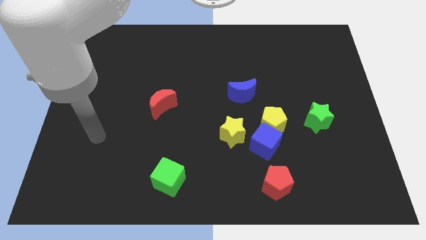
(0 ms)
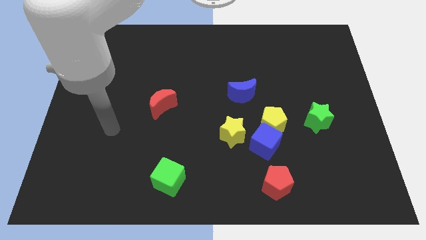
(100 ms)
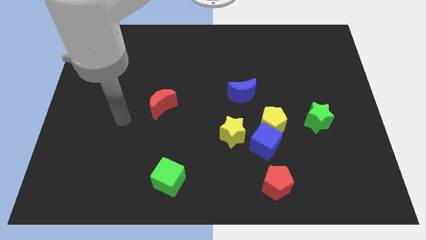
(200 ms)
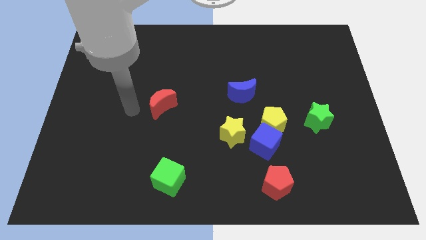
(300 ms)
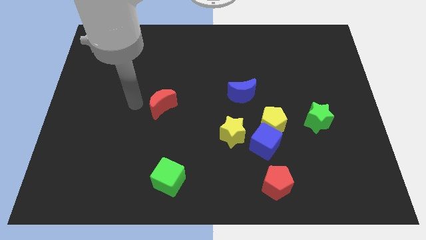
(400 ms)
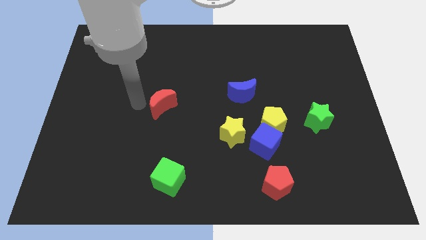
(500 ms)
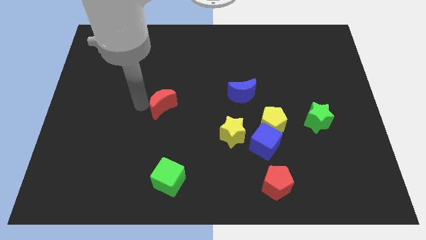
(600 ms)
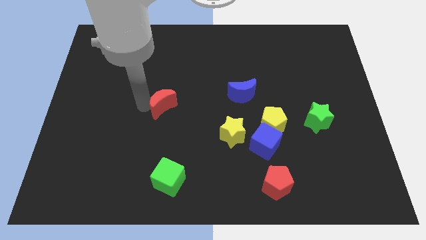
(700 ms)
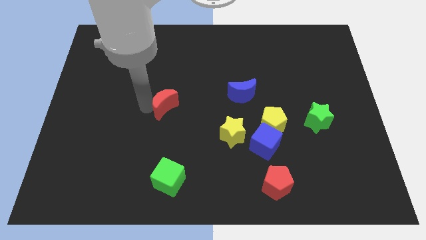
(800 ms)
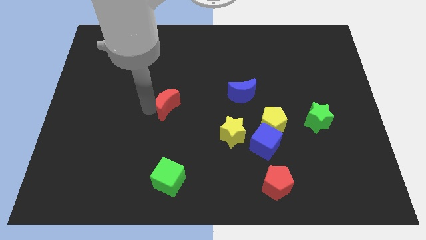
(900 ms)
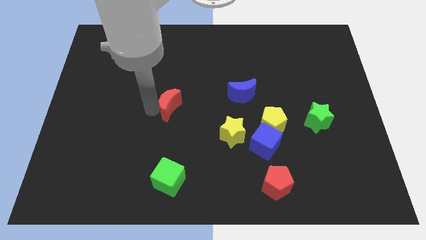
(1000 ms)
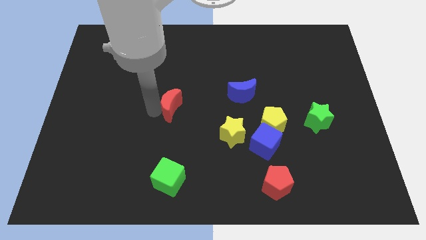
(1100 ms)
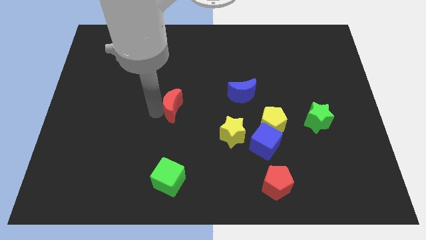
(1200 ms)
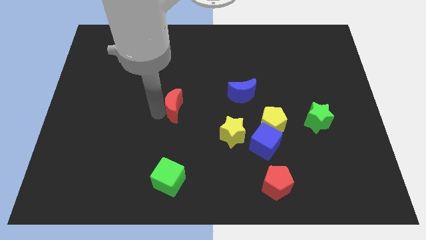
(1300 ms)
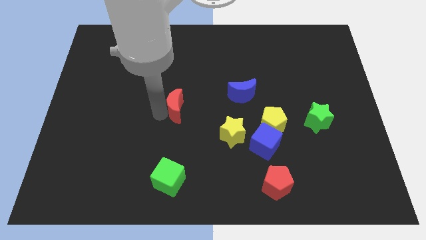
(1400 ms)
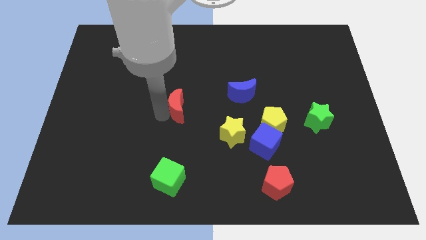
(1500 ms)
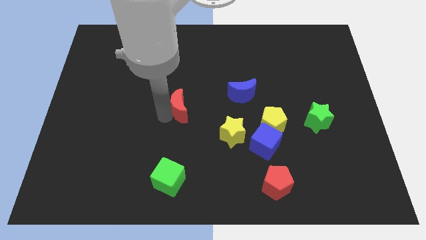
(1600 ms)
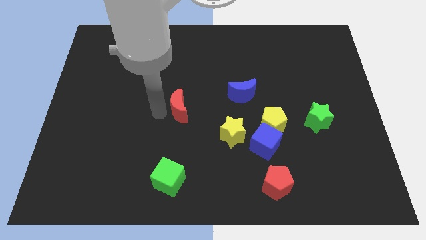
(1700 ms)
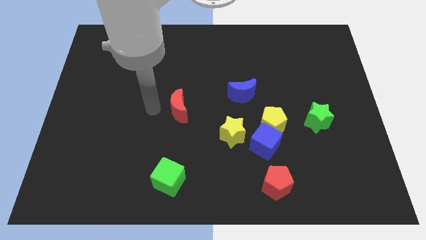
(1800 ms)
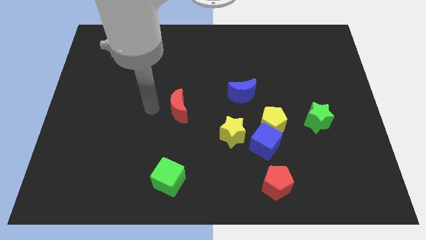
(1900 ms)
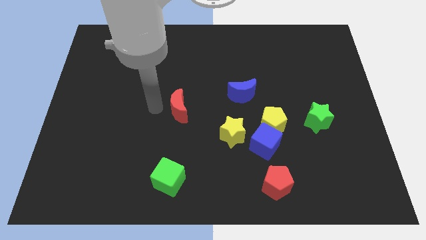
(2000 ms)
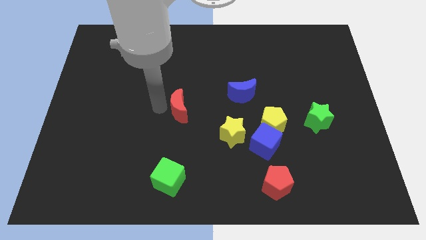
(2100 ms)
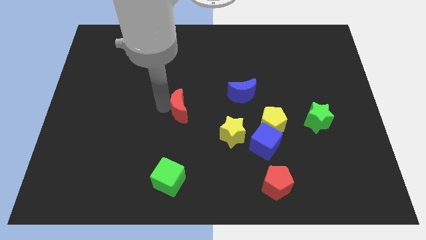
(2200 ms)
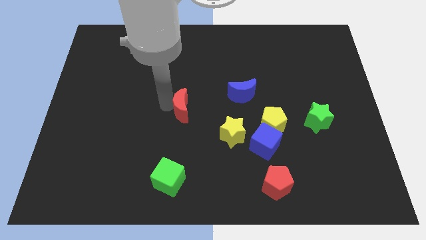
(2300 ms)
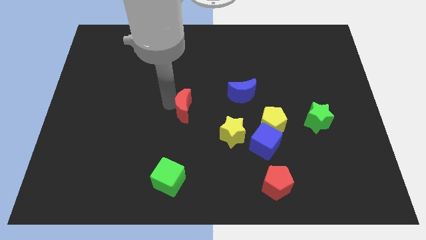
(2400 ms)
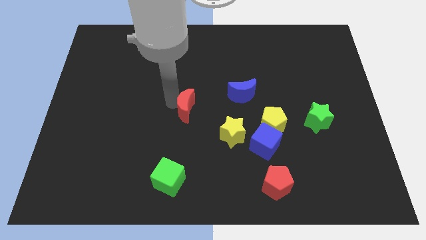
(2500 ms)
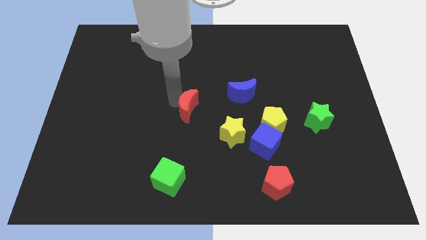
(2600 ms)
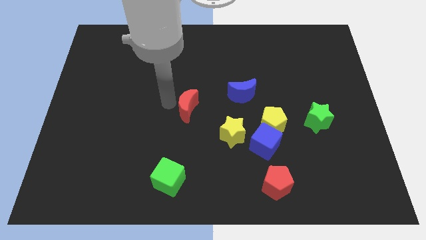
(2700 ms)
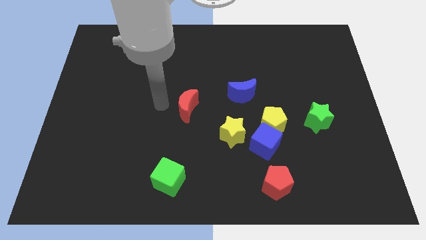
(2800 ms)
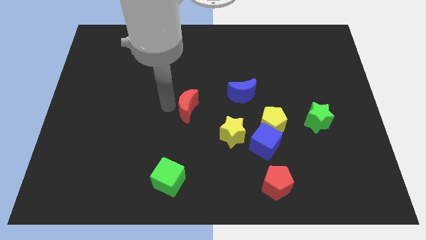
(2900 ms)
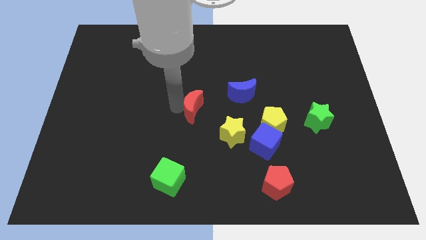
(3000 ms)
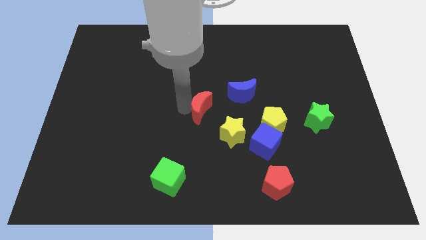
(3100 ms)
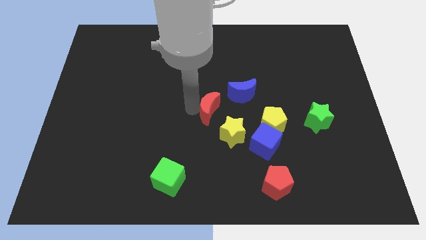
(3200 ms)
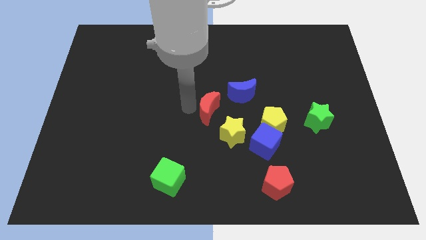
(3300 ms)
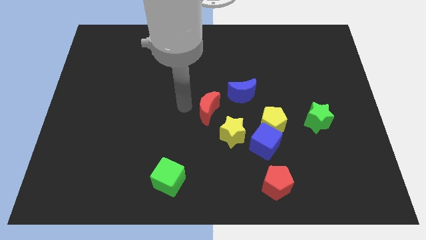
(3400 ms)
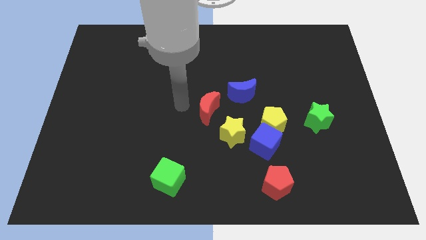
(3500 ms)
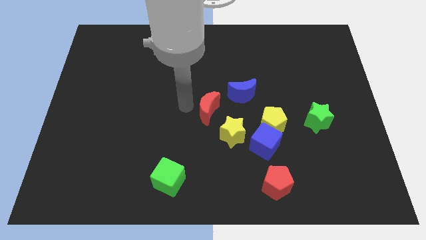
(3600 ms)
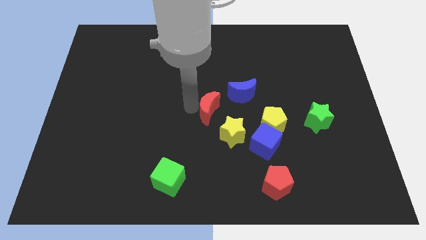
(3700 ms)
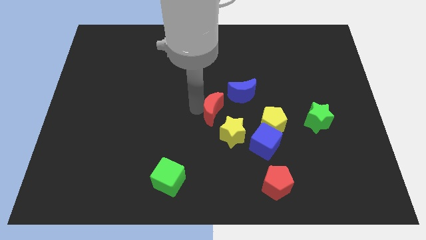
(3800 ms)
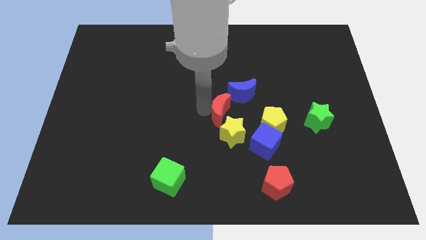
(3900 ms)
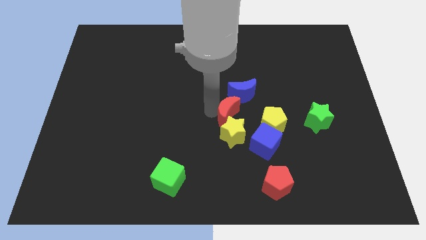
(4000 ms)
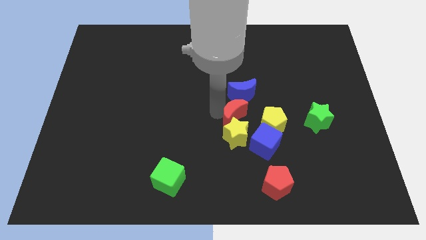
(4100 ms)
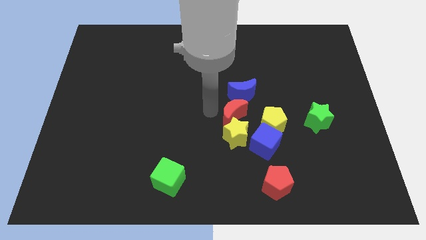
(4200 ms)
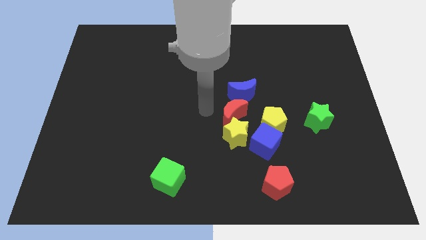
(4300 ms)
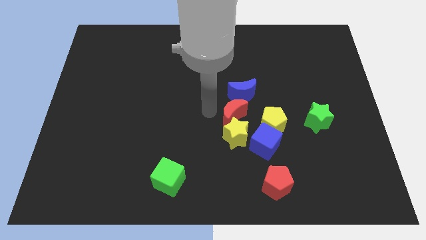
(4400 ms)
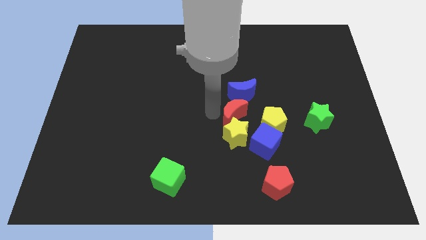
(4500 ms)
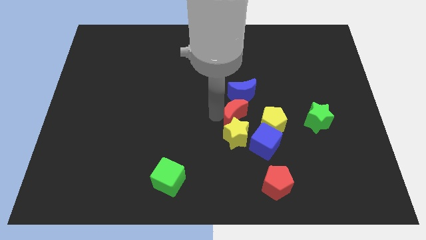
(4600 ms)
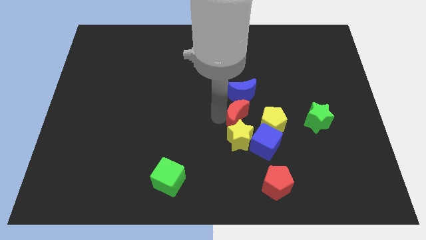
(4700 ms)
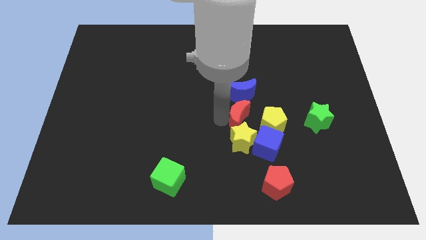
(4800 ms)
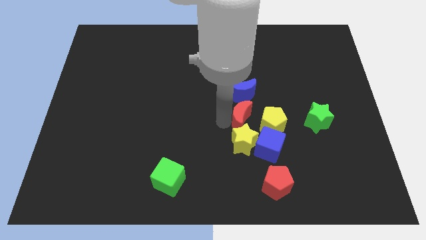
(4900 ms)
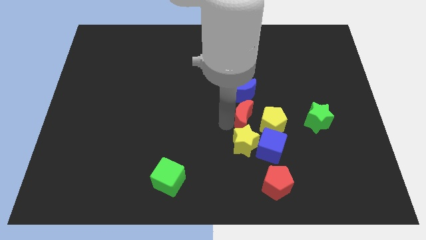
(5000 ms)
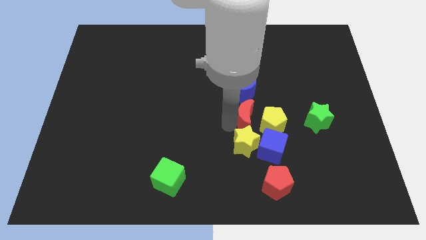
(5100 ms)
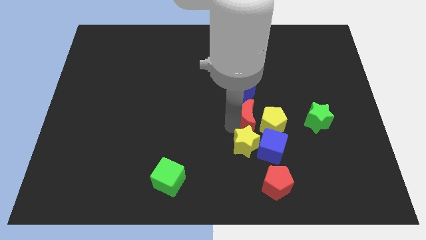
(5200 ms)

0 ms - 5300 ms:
put the red moon close to the yellow pentagon

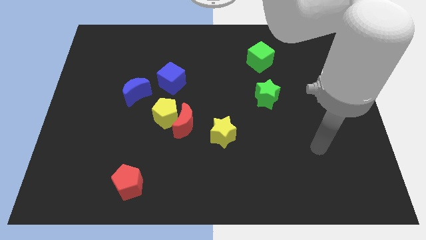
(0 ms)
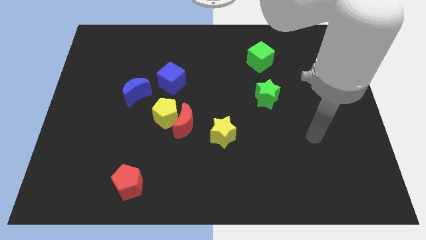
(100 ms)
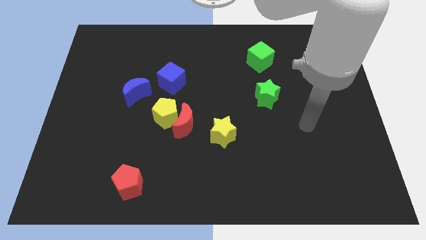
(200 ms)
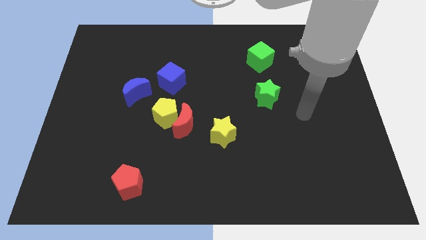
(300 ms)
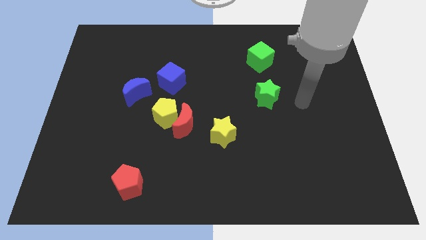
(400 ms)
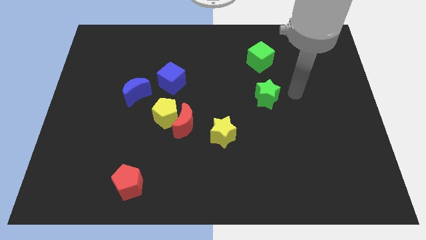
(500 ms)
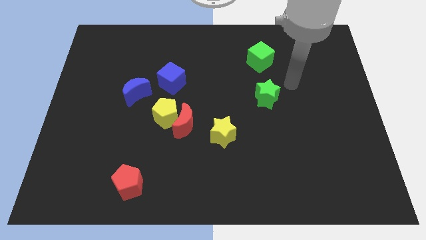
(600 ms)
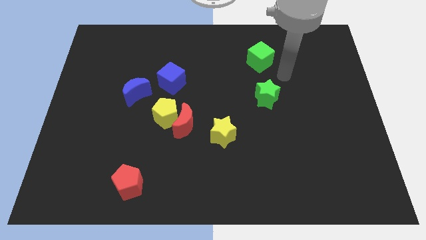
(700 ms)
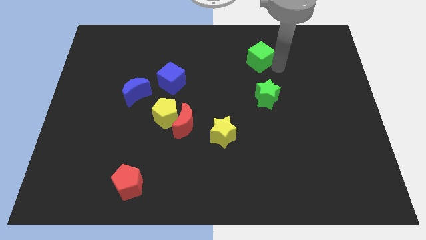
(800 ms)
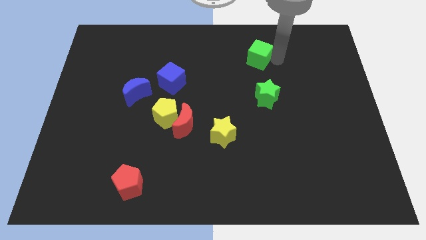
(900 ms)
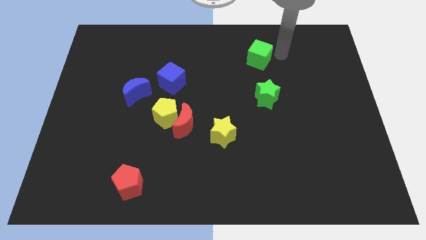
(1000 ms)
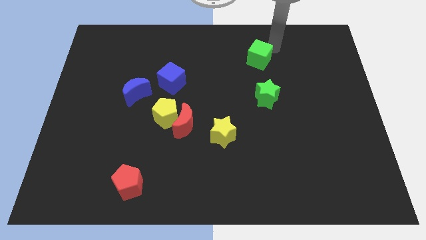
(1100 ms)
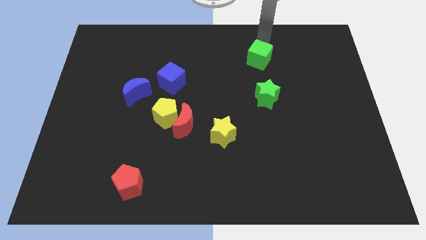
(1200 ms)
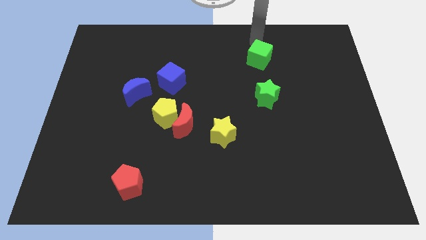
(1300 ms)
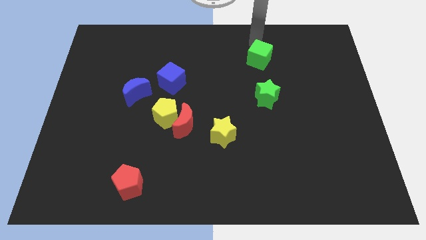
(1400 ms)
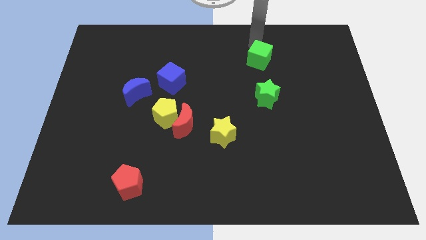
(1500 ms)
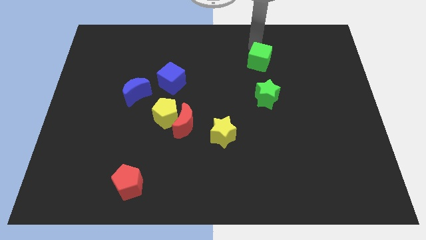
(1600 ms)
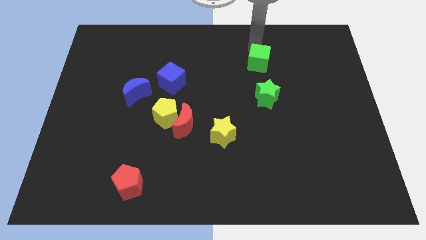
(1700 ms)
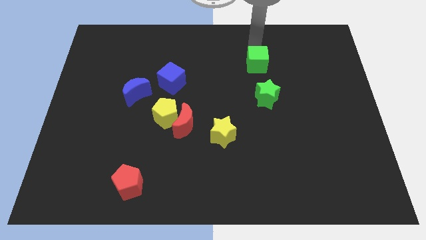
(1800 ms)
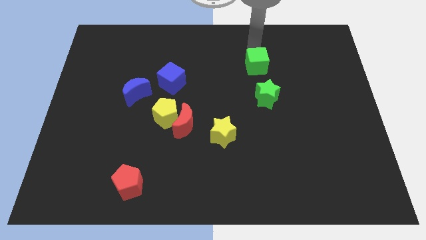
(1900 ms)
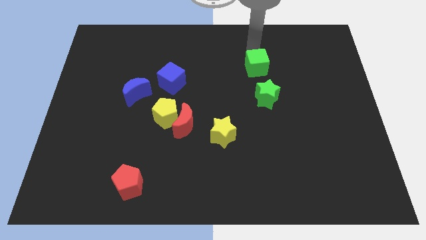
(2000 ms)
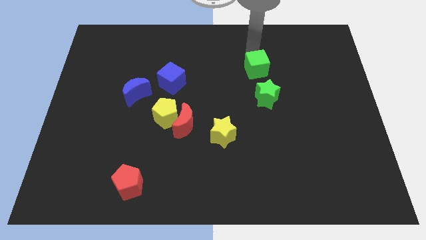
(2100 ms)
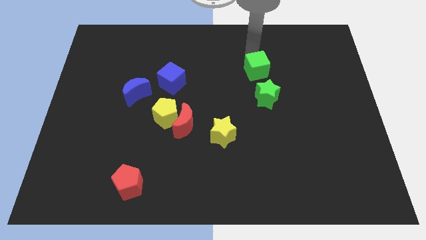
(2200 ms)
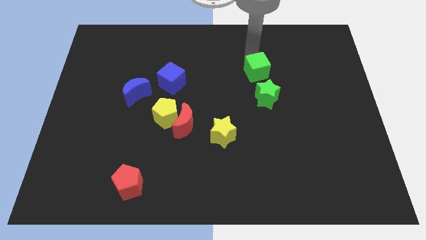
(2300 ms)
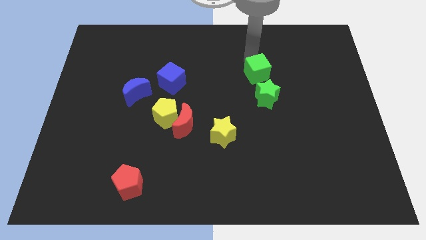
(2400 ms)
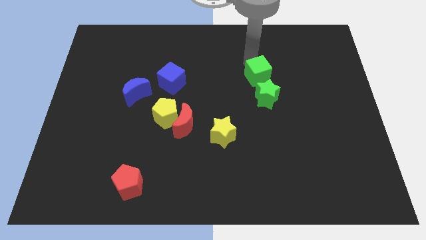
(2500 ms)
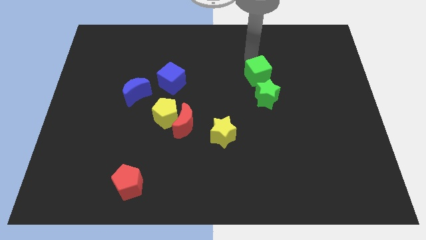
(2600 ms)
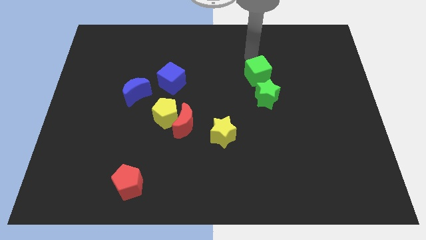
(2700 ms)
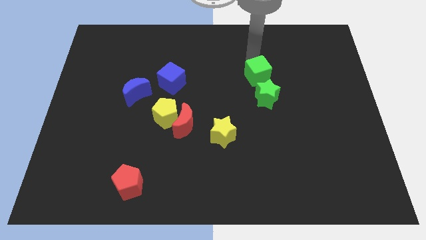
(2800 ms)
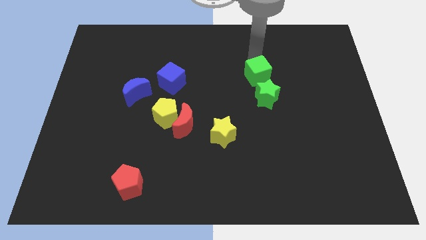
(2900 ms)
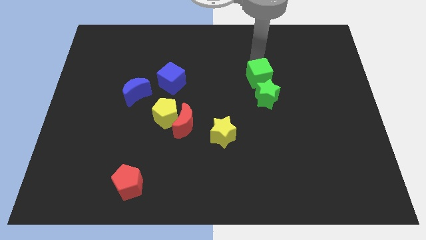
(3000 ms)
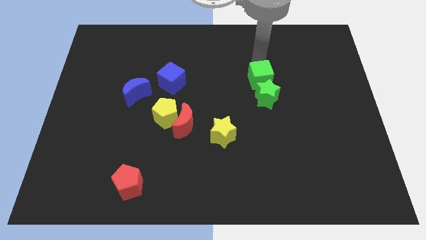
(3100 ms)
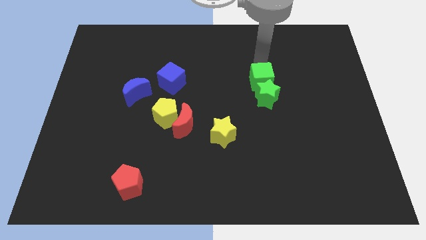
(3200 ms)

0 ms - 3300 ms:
slide the green cube next to the green star
